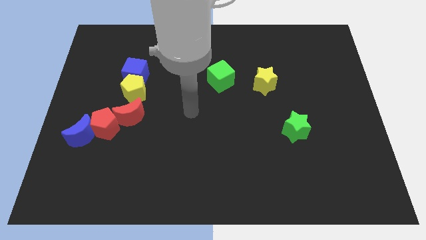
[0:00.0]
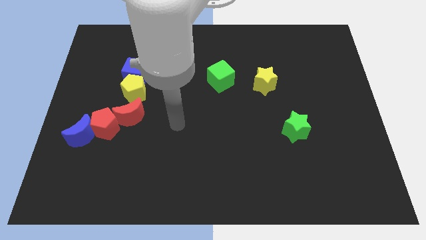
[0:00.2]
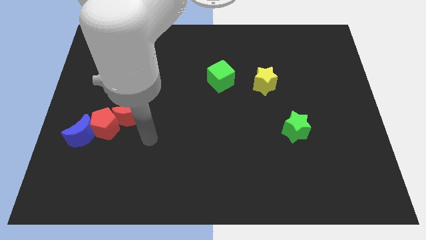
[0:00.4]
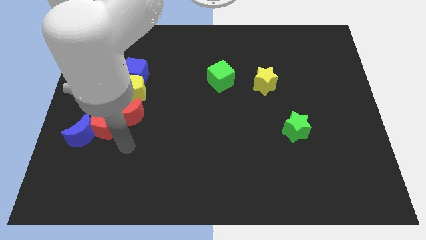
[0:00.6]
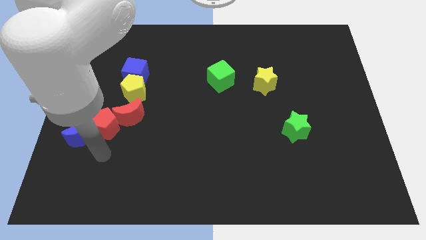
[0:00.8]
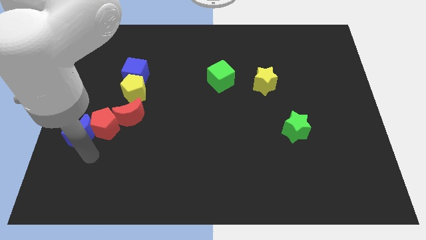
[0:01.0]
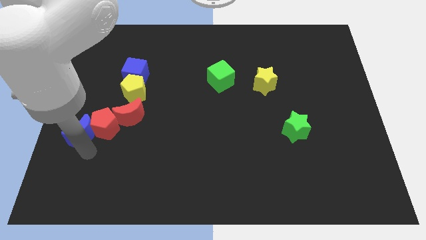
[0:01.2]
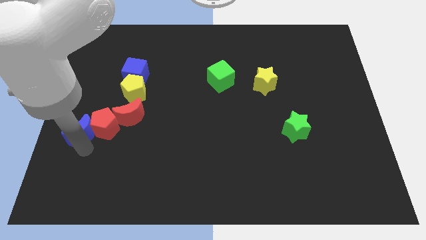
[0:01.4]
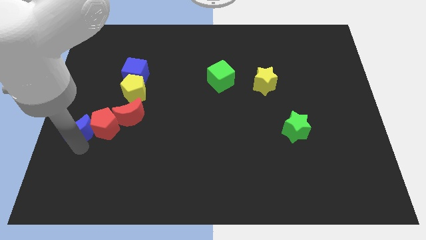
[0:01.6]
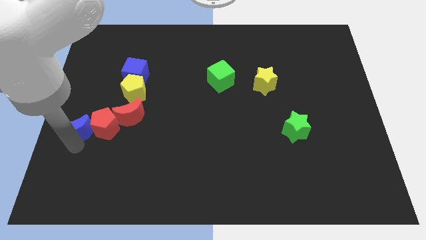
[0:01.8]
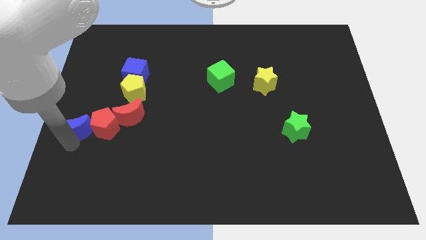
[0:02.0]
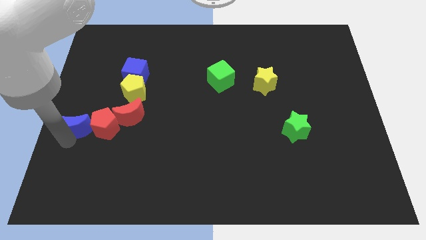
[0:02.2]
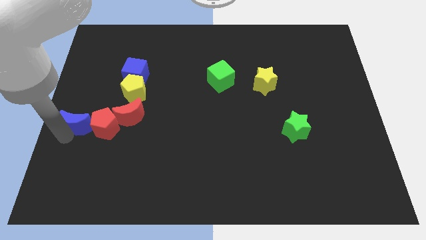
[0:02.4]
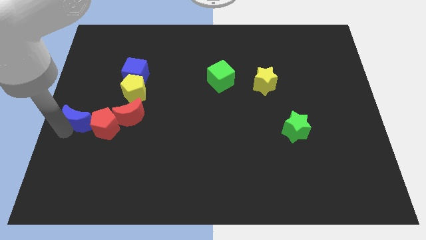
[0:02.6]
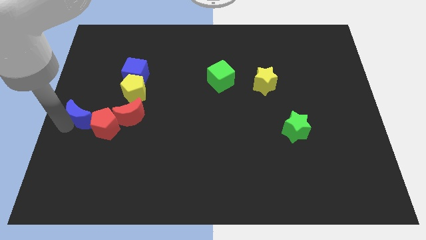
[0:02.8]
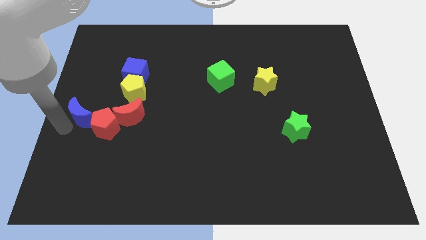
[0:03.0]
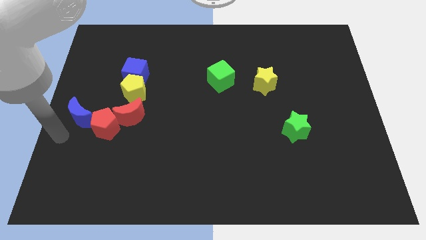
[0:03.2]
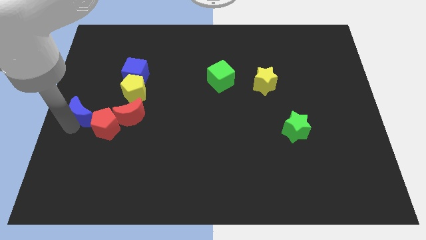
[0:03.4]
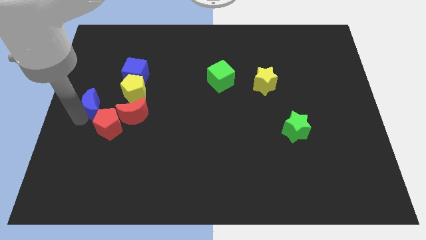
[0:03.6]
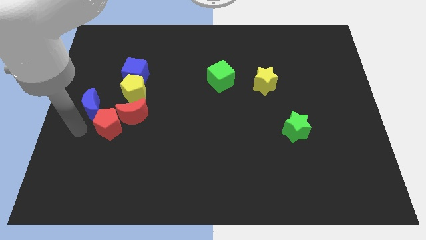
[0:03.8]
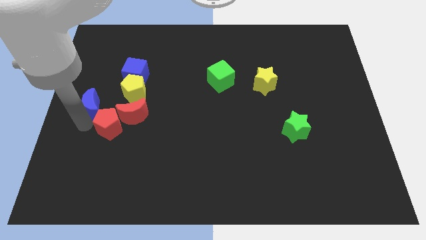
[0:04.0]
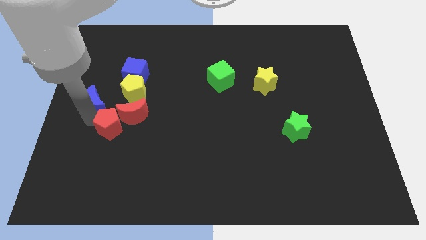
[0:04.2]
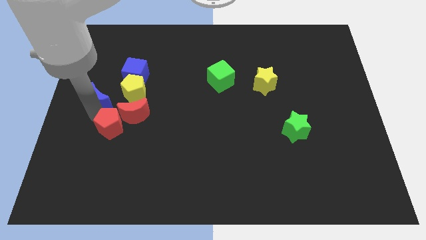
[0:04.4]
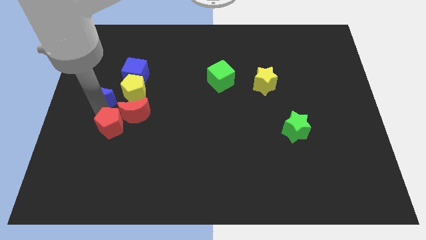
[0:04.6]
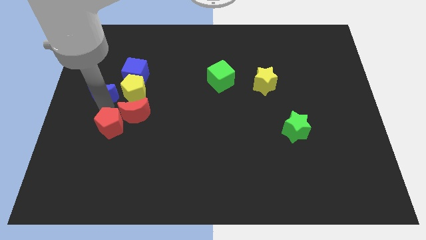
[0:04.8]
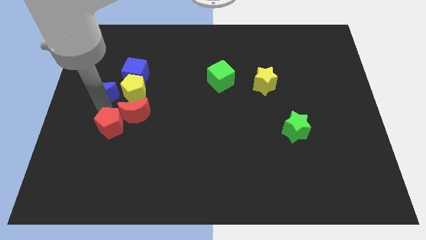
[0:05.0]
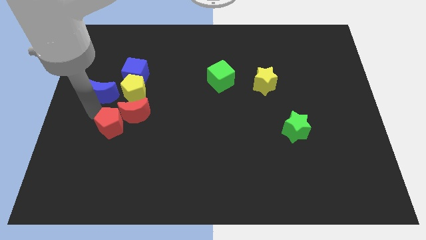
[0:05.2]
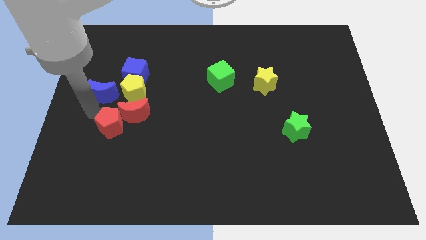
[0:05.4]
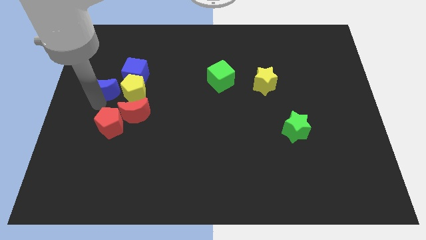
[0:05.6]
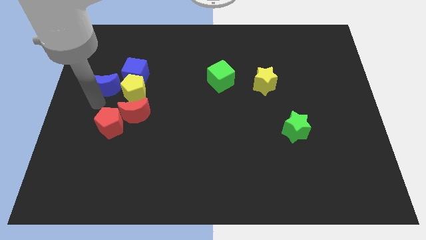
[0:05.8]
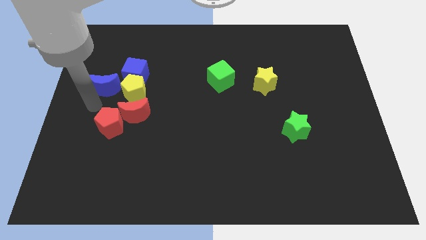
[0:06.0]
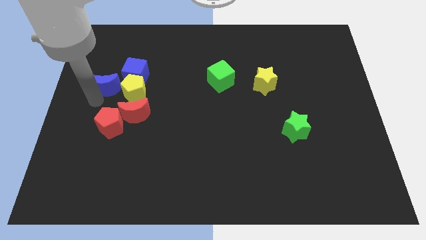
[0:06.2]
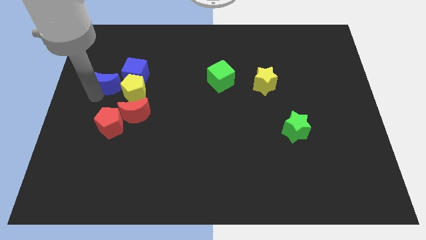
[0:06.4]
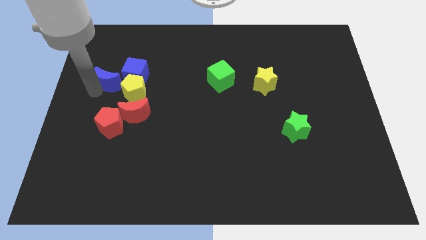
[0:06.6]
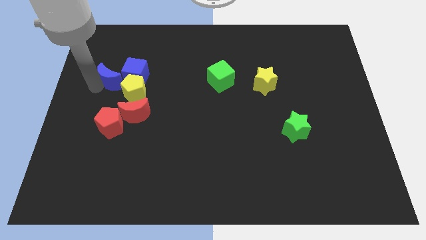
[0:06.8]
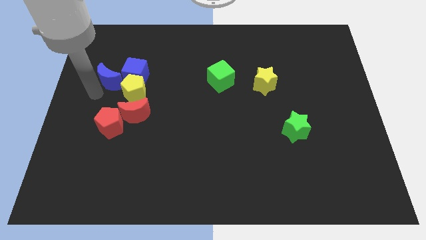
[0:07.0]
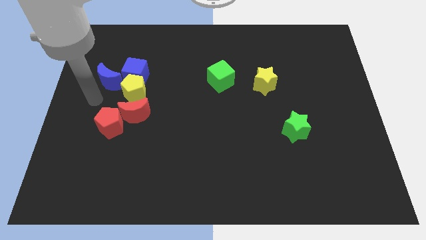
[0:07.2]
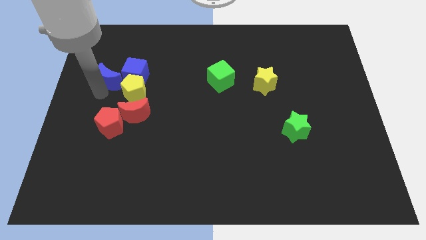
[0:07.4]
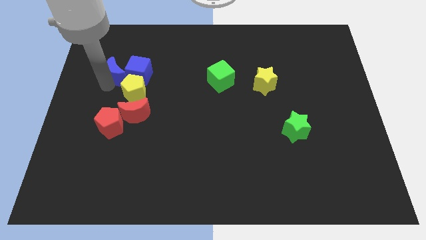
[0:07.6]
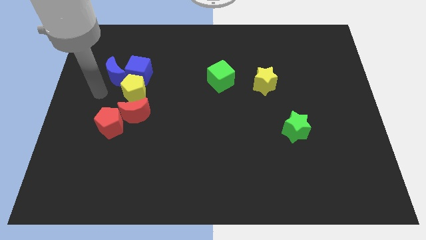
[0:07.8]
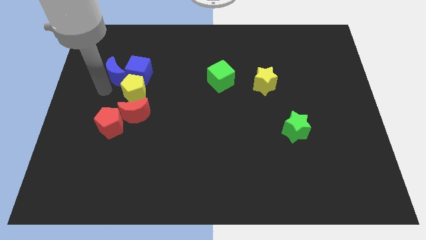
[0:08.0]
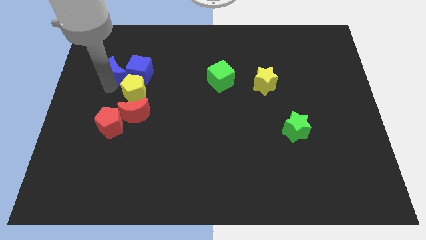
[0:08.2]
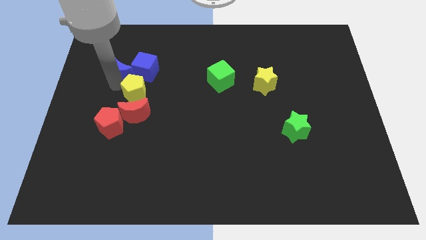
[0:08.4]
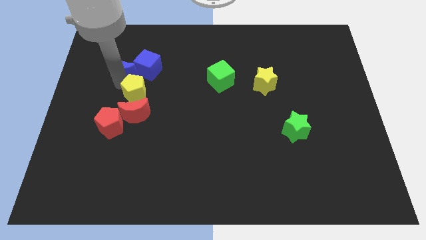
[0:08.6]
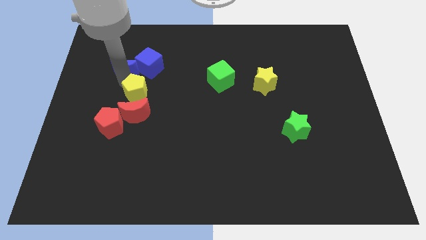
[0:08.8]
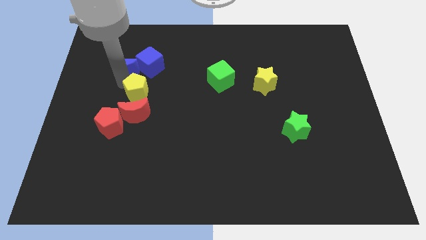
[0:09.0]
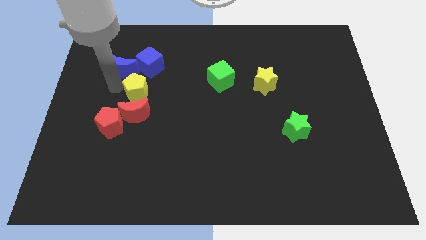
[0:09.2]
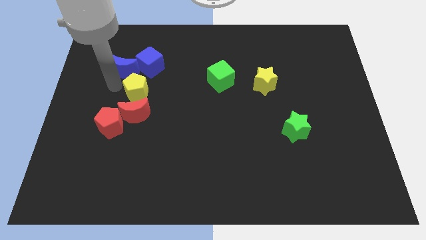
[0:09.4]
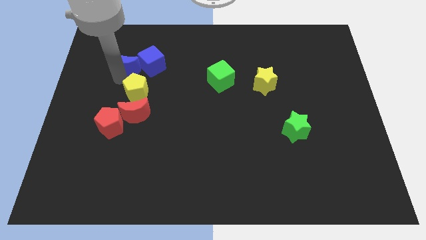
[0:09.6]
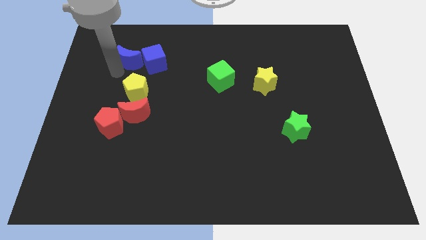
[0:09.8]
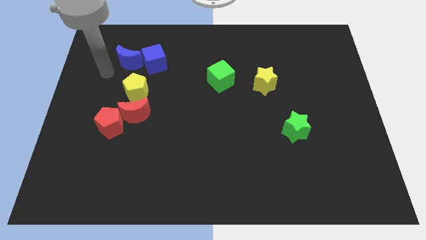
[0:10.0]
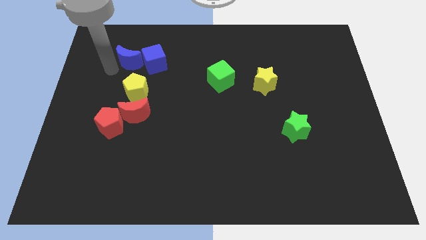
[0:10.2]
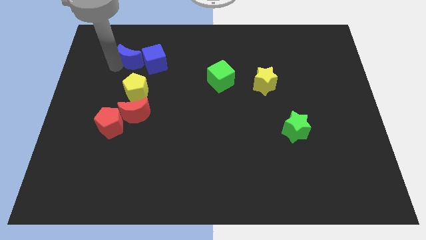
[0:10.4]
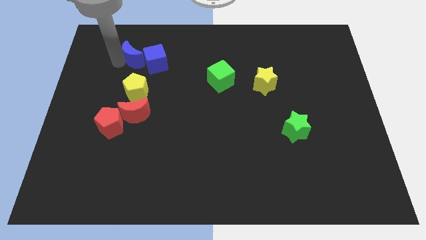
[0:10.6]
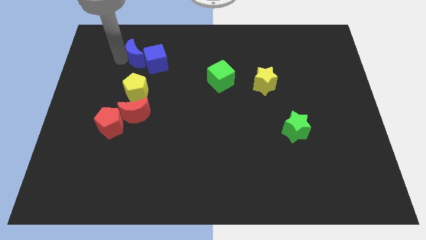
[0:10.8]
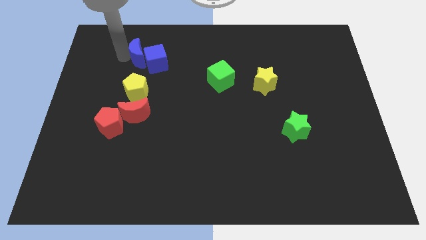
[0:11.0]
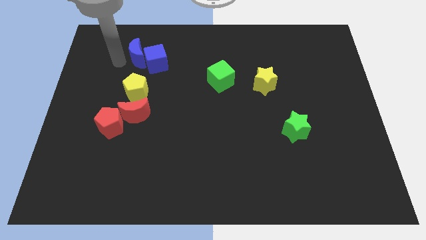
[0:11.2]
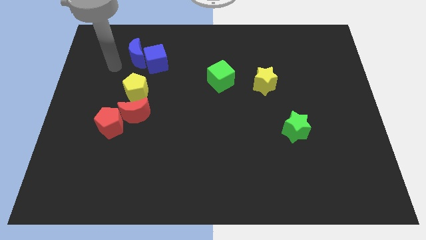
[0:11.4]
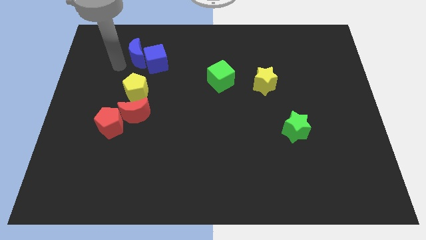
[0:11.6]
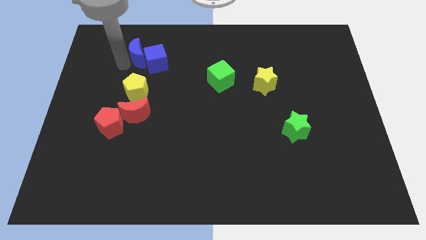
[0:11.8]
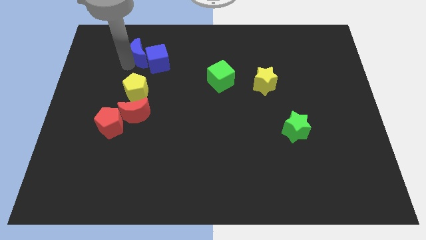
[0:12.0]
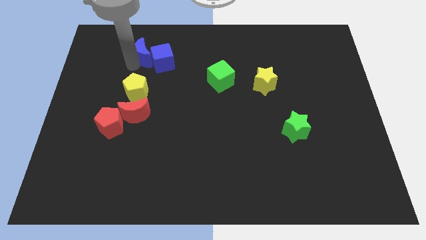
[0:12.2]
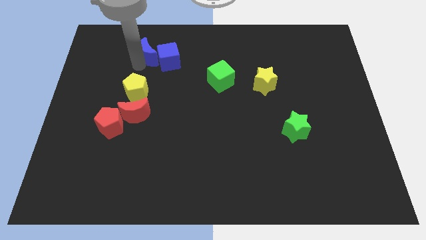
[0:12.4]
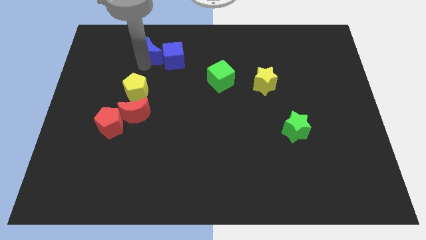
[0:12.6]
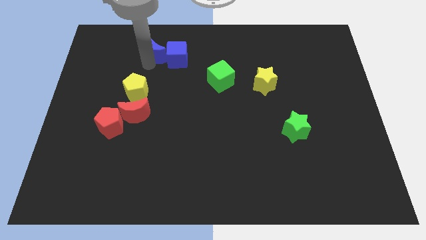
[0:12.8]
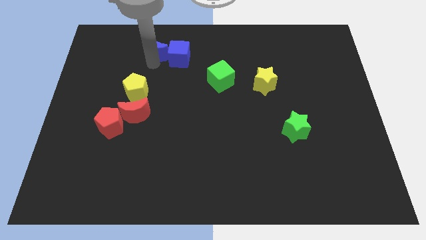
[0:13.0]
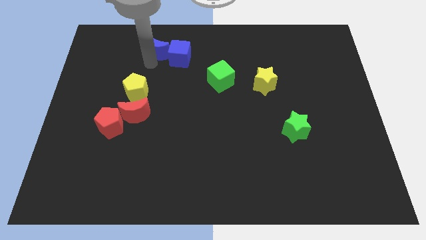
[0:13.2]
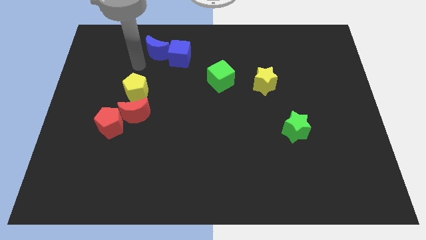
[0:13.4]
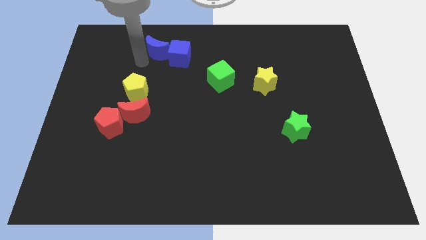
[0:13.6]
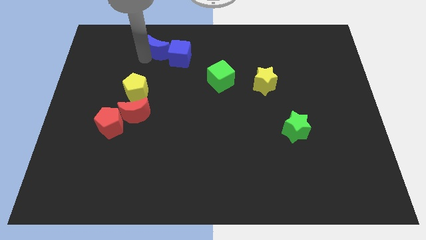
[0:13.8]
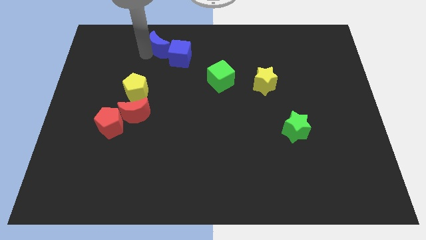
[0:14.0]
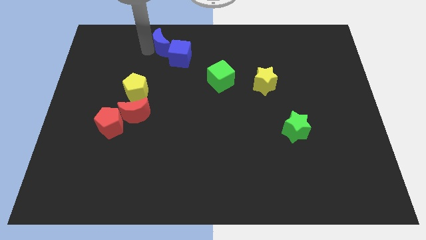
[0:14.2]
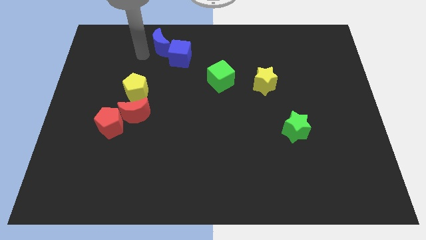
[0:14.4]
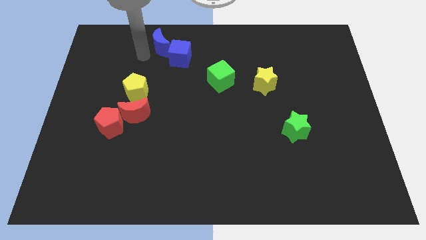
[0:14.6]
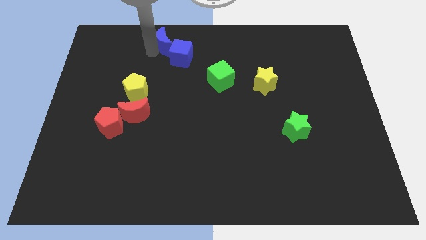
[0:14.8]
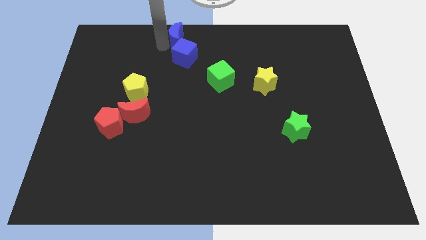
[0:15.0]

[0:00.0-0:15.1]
push the blue moon to the top side
